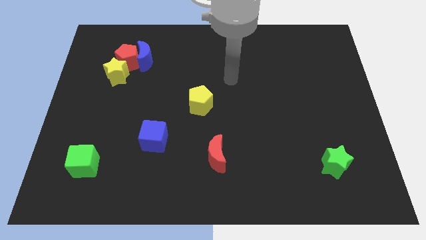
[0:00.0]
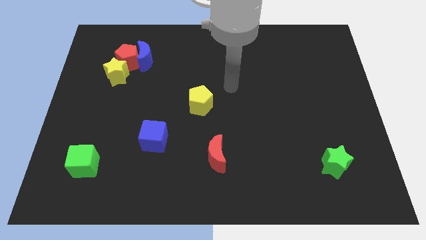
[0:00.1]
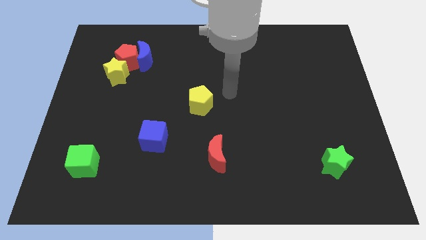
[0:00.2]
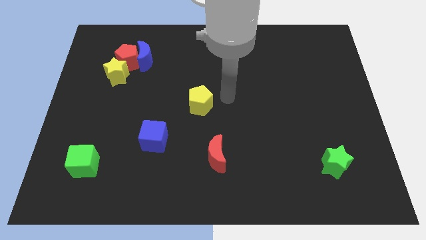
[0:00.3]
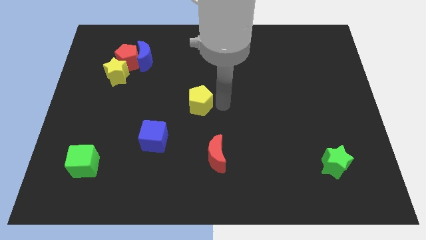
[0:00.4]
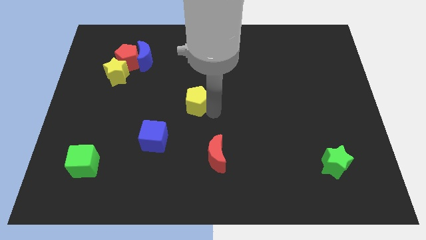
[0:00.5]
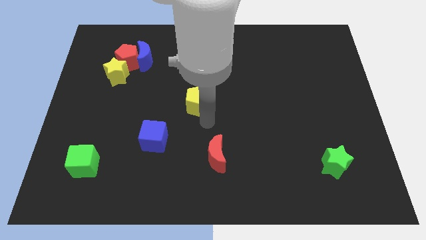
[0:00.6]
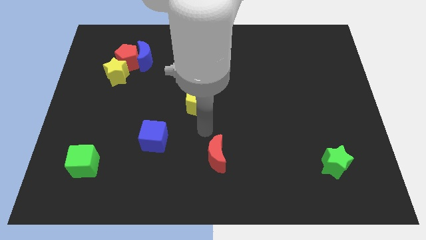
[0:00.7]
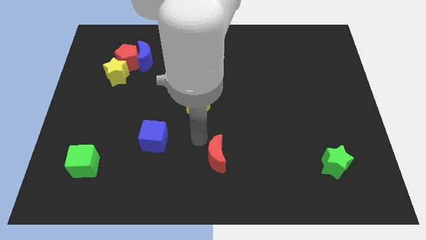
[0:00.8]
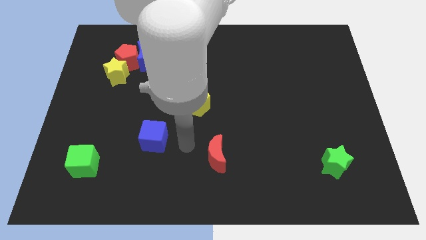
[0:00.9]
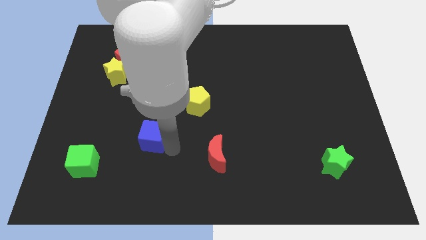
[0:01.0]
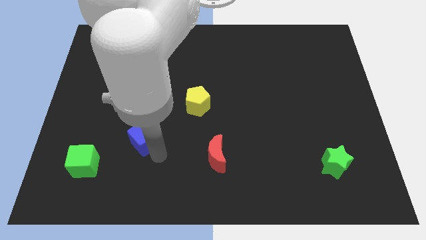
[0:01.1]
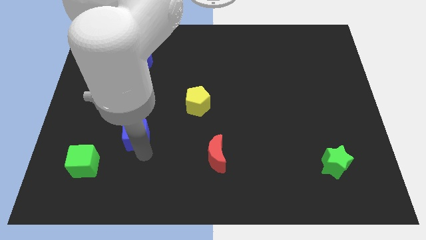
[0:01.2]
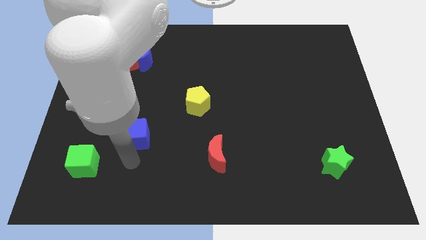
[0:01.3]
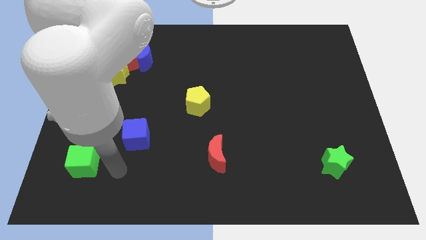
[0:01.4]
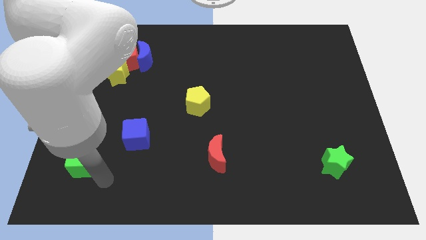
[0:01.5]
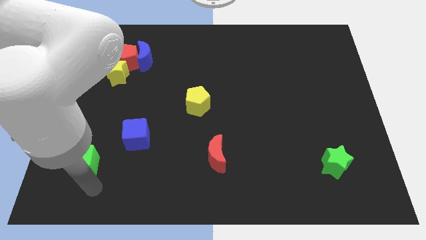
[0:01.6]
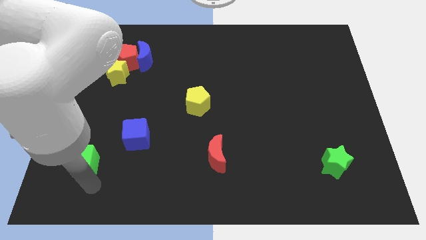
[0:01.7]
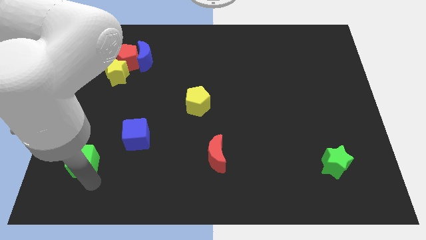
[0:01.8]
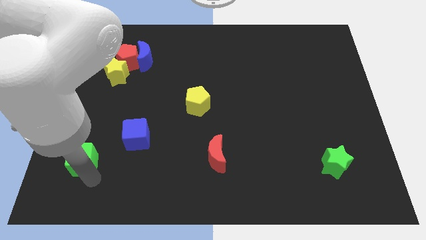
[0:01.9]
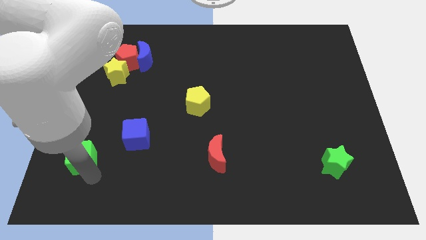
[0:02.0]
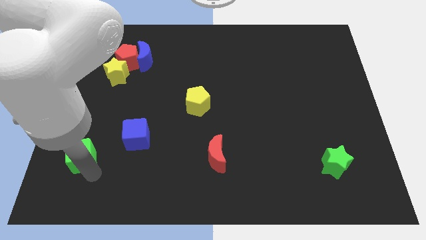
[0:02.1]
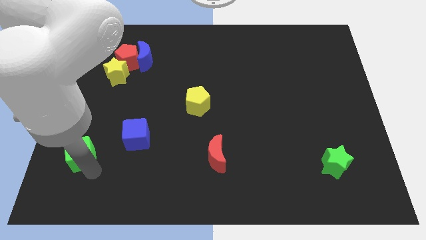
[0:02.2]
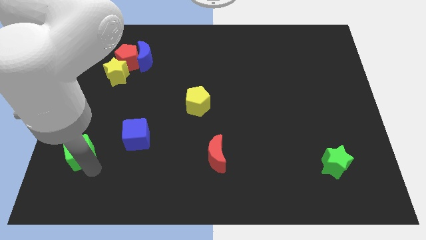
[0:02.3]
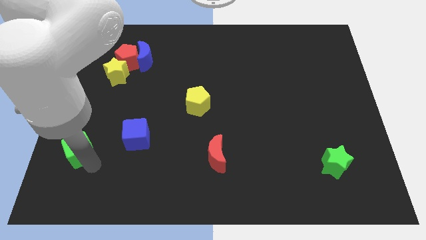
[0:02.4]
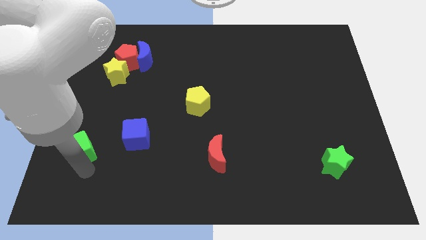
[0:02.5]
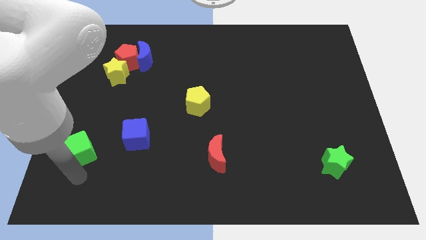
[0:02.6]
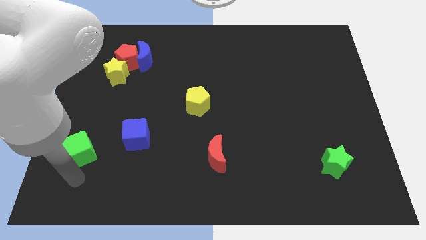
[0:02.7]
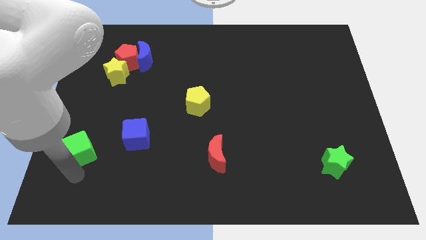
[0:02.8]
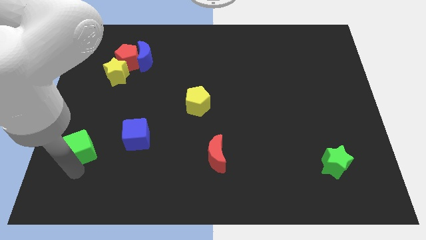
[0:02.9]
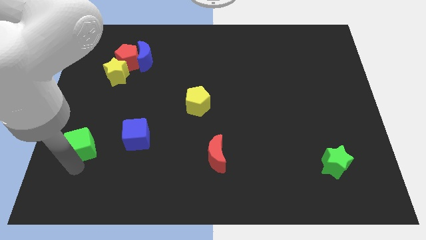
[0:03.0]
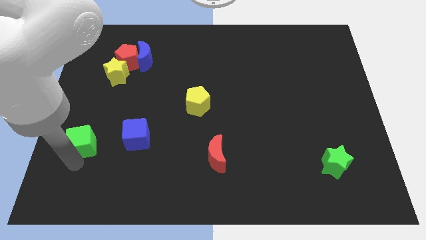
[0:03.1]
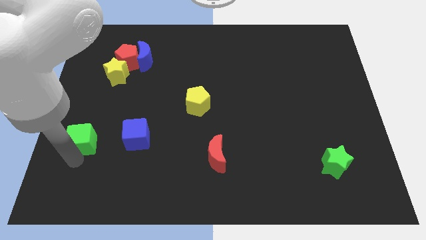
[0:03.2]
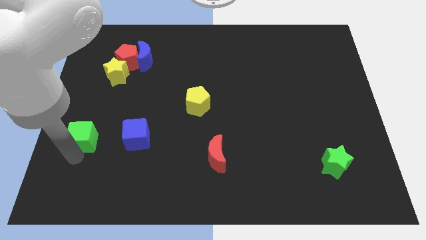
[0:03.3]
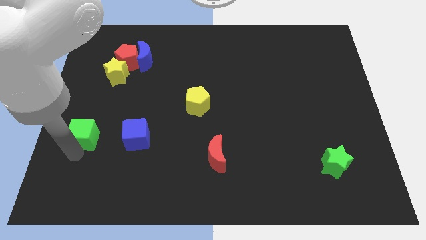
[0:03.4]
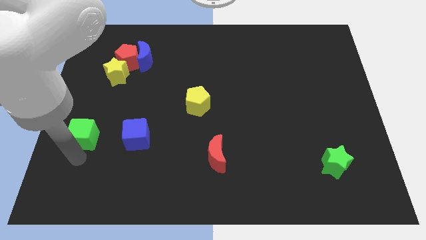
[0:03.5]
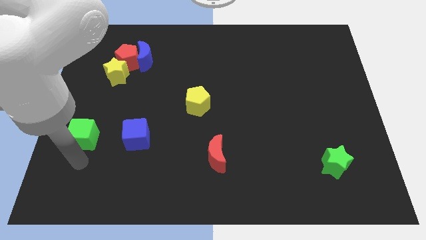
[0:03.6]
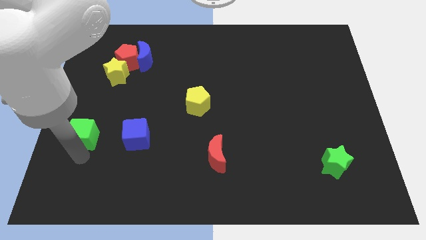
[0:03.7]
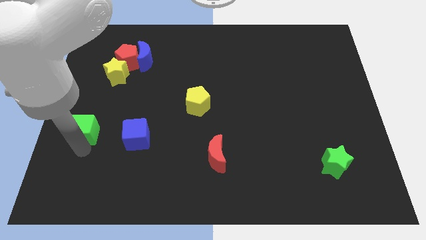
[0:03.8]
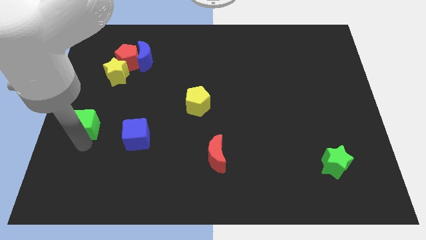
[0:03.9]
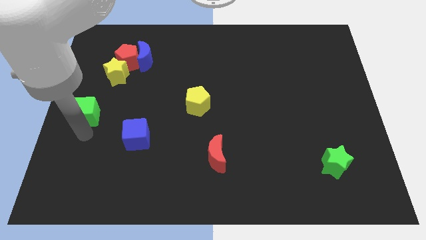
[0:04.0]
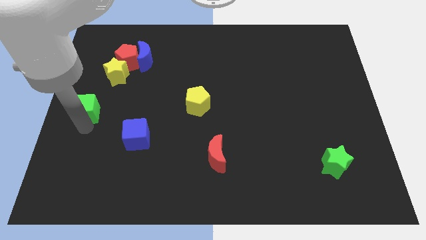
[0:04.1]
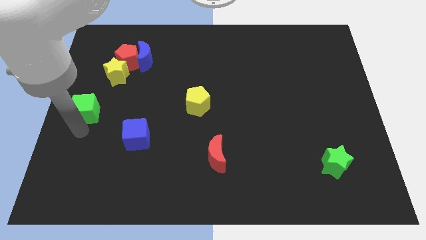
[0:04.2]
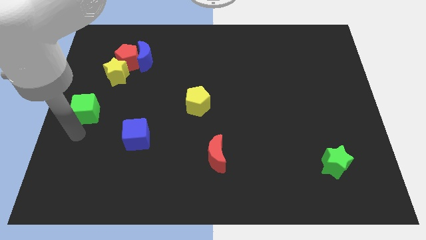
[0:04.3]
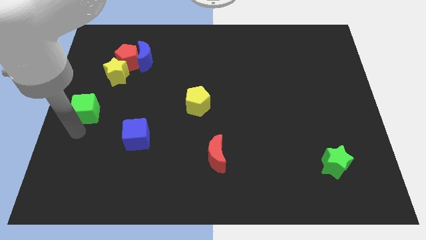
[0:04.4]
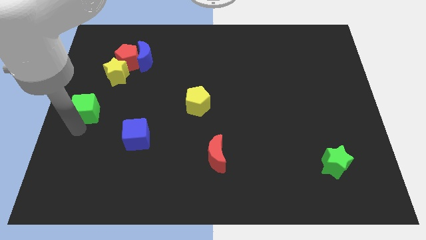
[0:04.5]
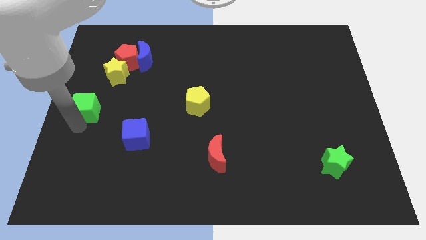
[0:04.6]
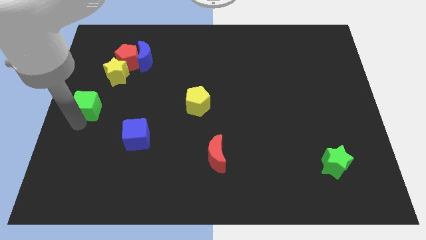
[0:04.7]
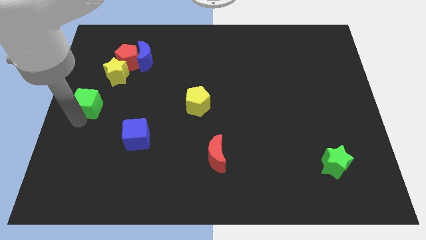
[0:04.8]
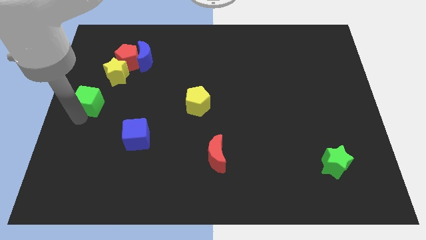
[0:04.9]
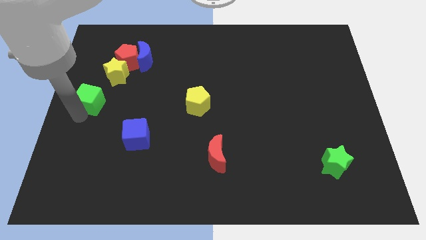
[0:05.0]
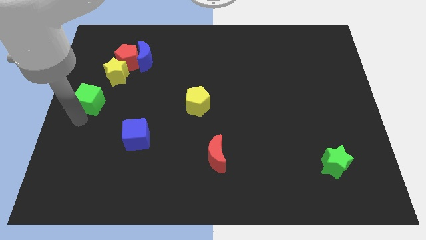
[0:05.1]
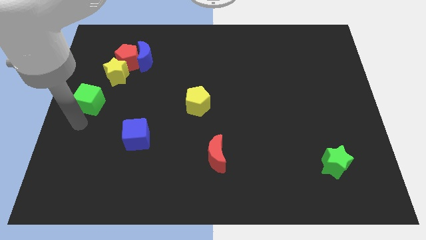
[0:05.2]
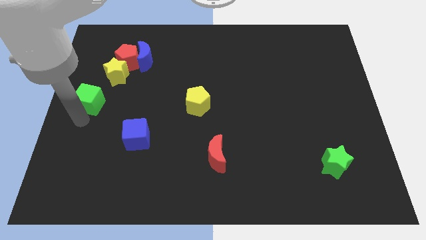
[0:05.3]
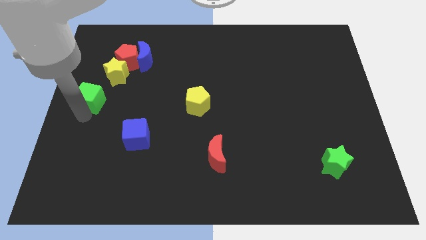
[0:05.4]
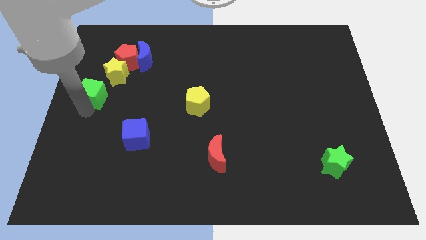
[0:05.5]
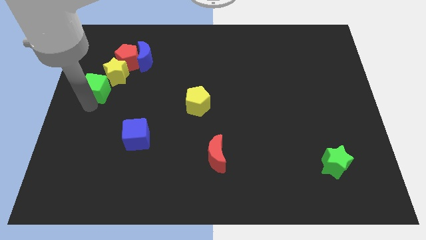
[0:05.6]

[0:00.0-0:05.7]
push the green cube upwards

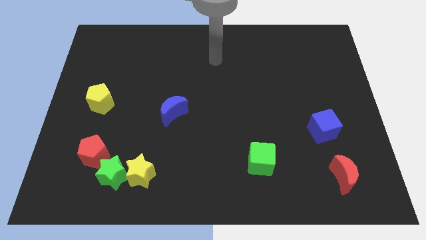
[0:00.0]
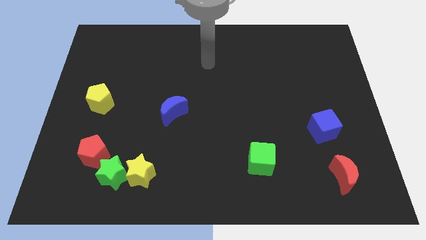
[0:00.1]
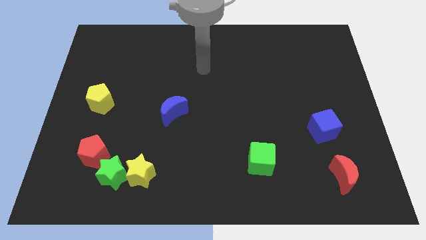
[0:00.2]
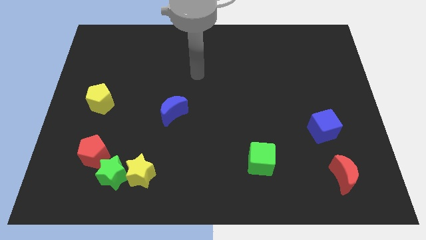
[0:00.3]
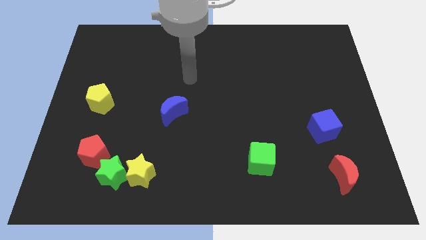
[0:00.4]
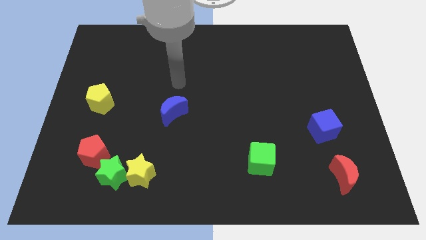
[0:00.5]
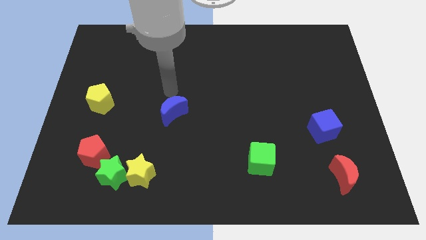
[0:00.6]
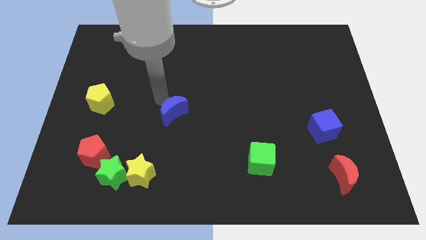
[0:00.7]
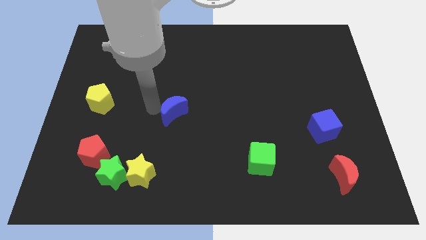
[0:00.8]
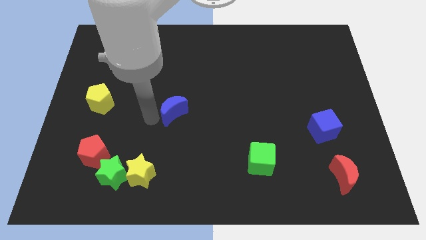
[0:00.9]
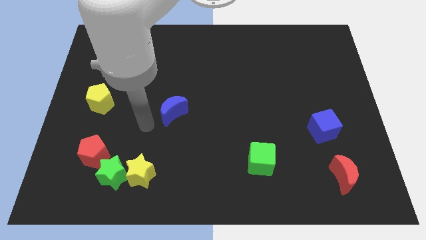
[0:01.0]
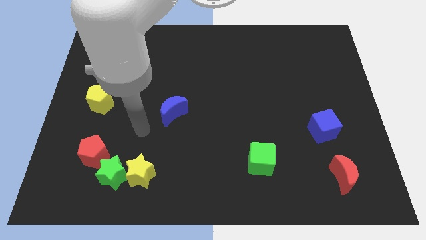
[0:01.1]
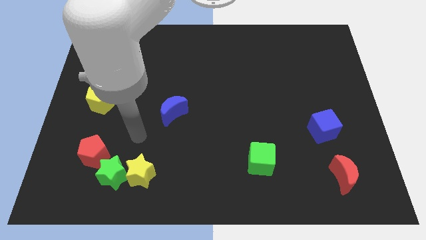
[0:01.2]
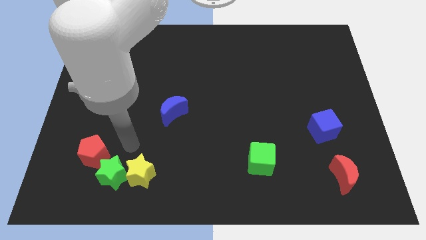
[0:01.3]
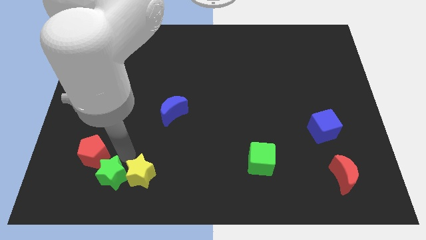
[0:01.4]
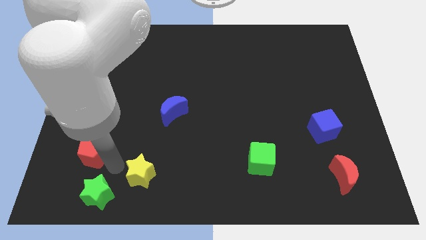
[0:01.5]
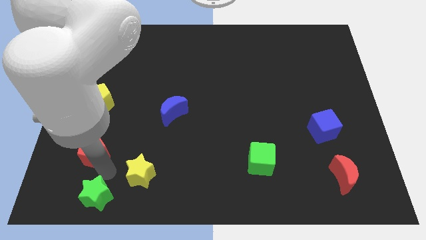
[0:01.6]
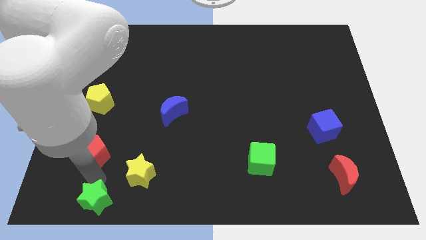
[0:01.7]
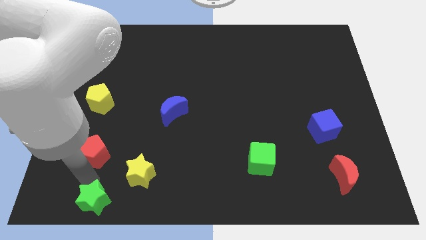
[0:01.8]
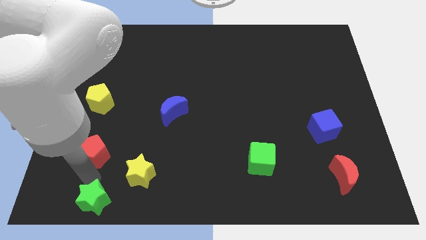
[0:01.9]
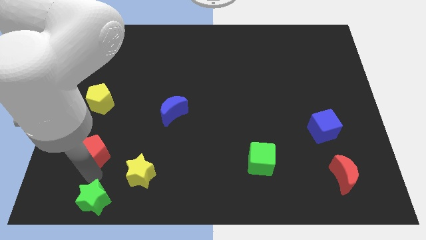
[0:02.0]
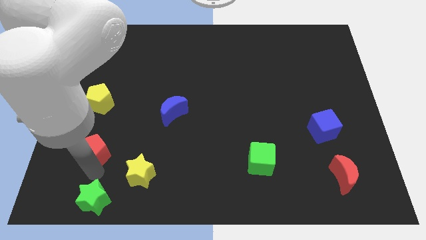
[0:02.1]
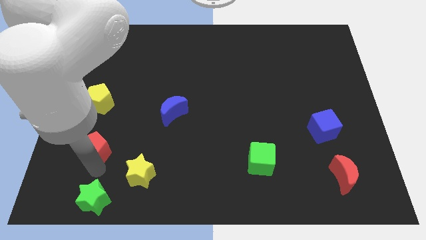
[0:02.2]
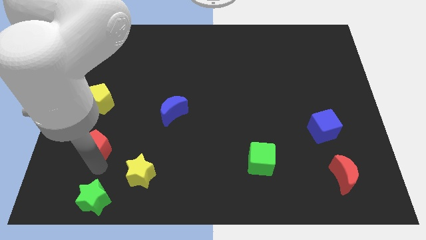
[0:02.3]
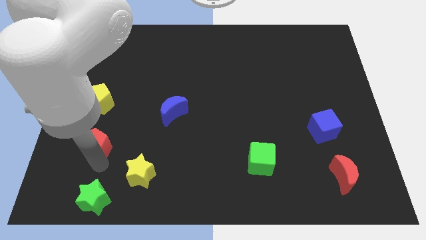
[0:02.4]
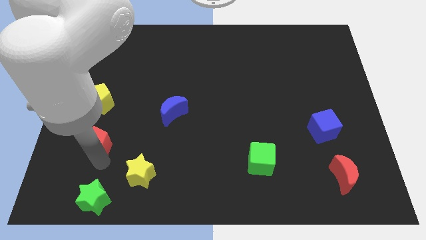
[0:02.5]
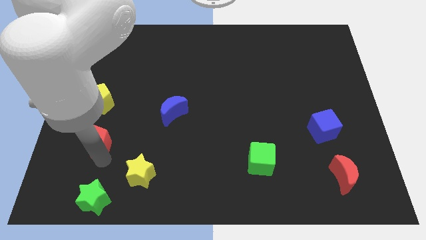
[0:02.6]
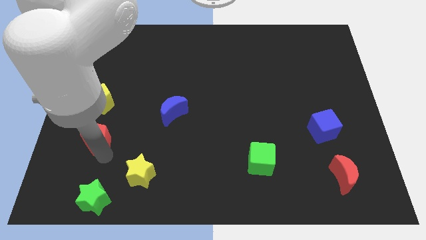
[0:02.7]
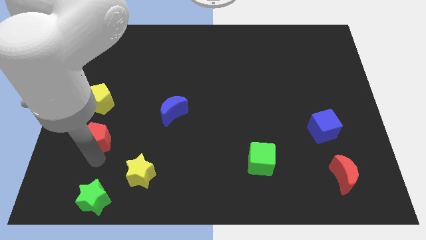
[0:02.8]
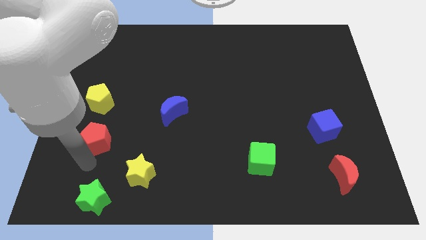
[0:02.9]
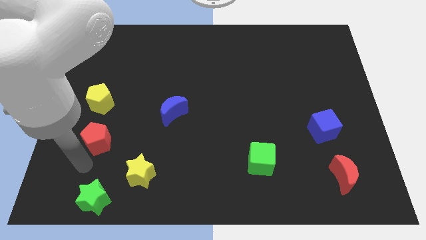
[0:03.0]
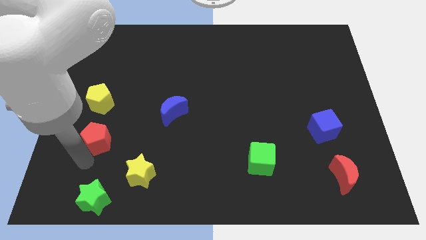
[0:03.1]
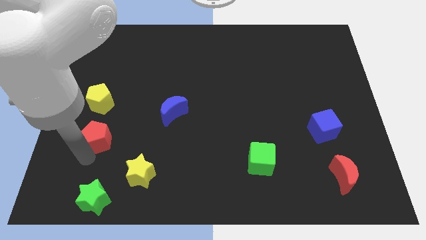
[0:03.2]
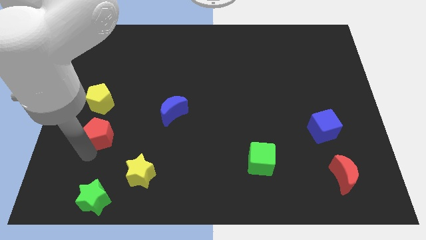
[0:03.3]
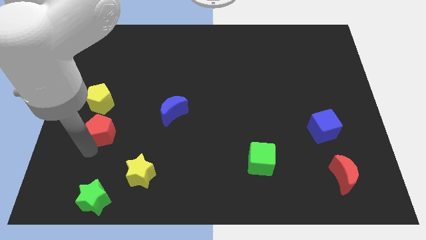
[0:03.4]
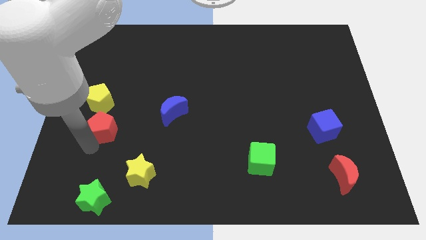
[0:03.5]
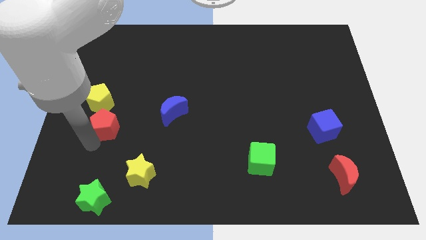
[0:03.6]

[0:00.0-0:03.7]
slightly slide the red pentagon upwards
